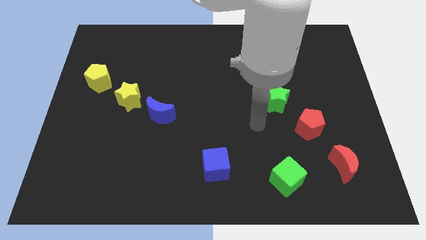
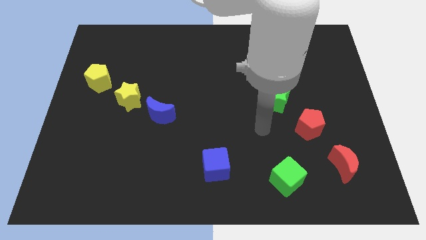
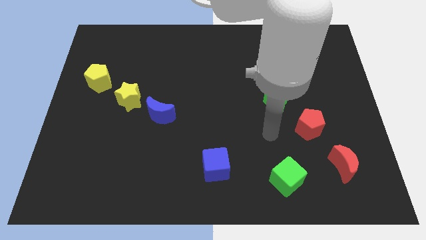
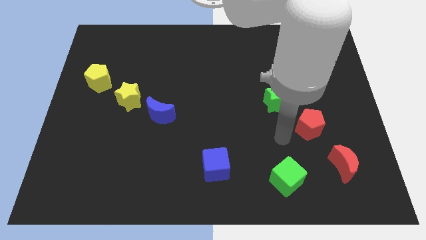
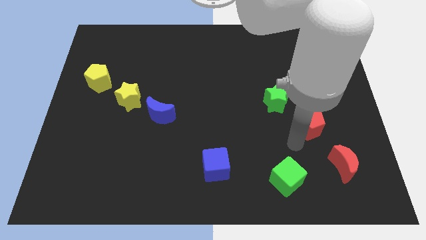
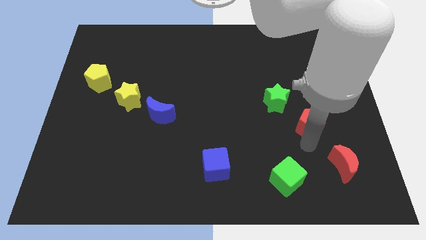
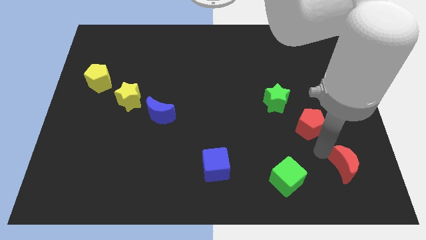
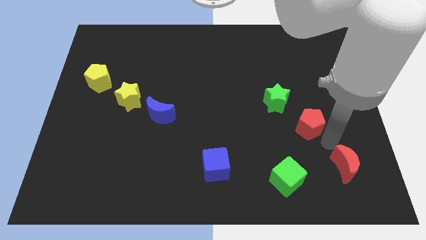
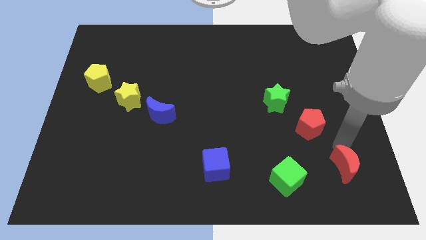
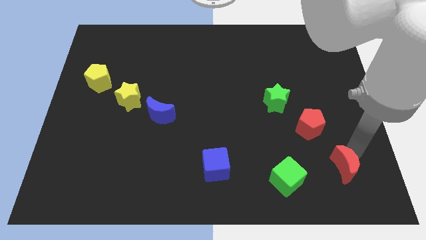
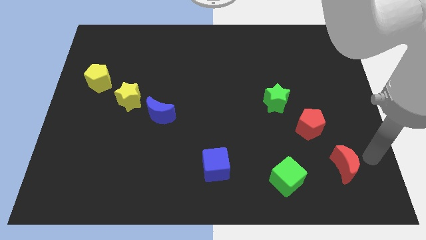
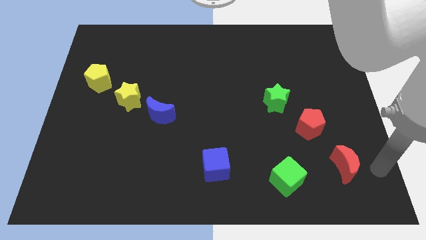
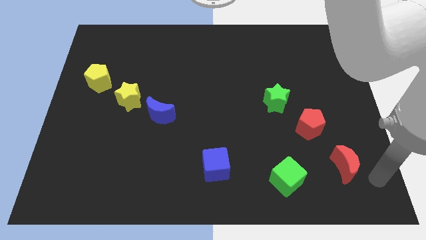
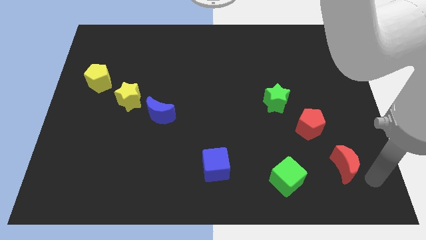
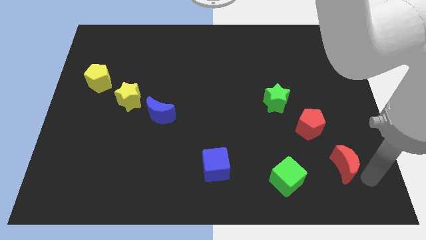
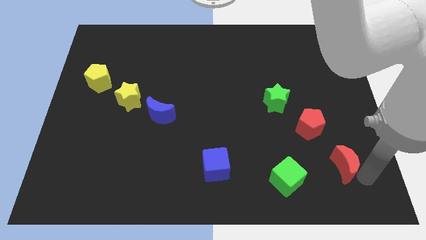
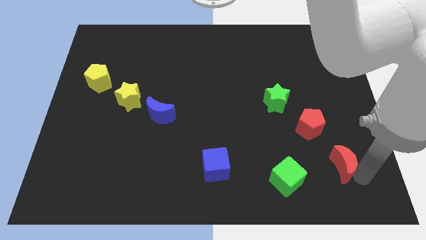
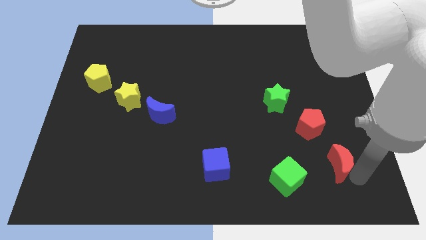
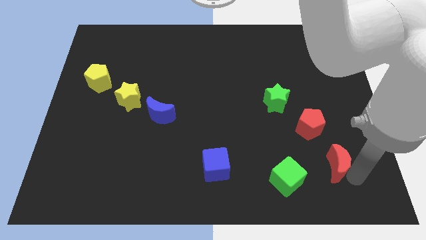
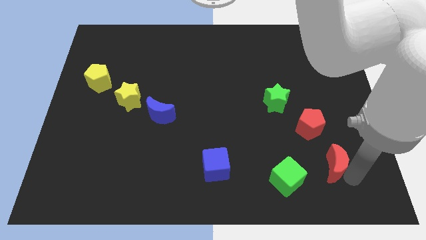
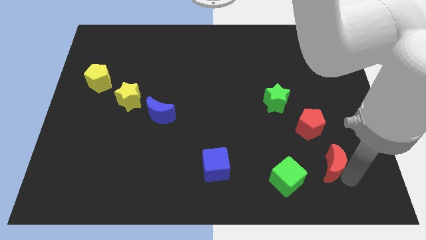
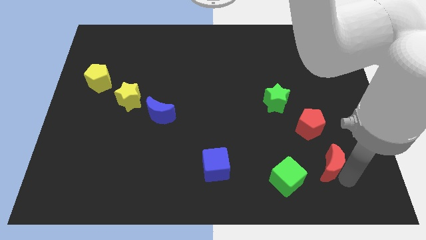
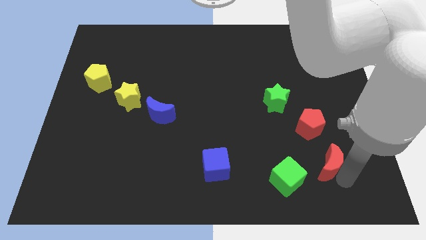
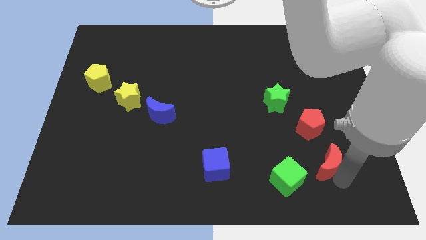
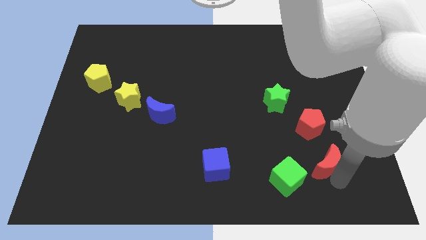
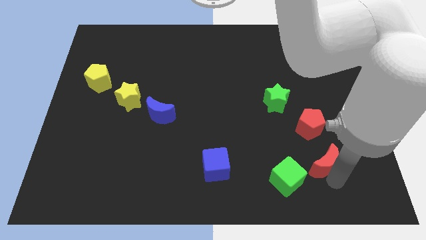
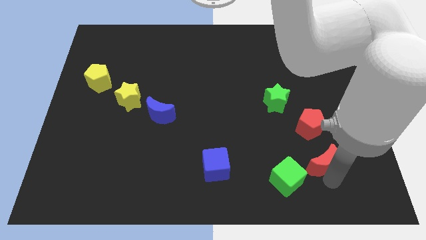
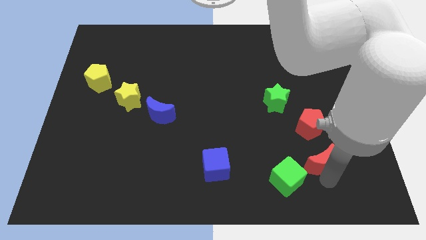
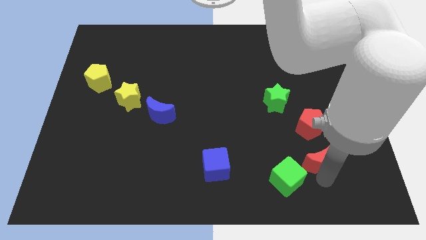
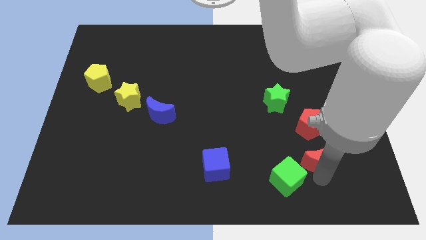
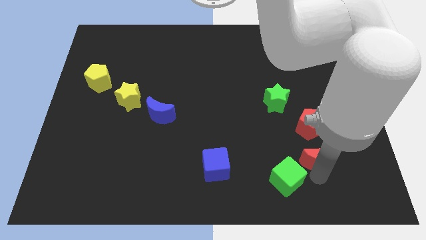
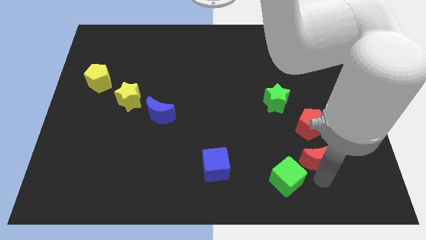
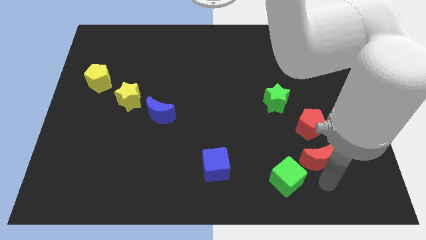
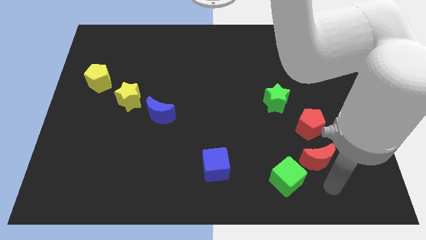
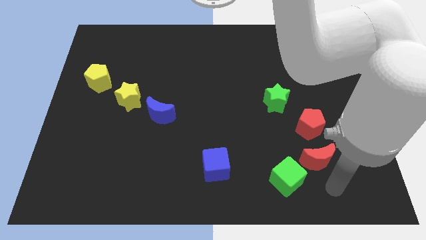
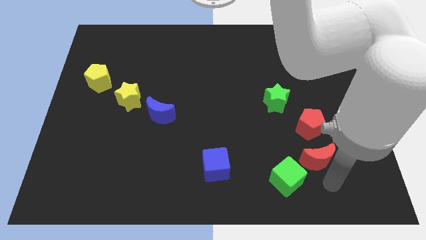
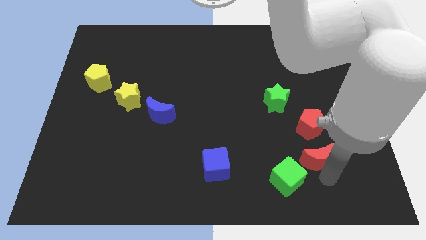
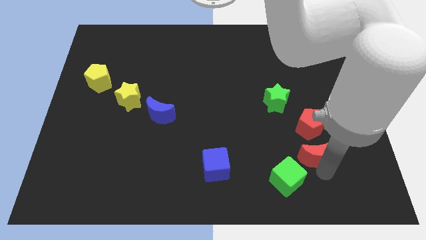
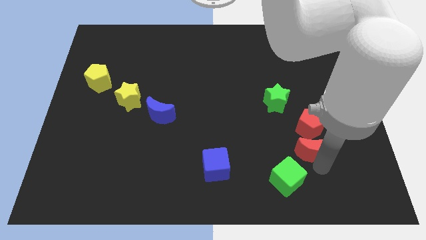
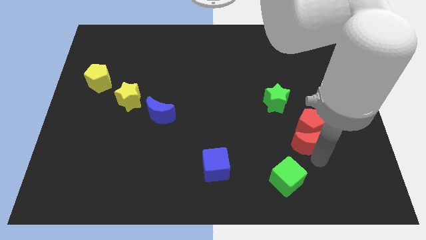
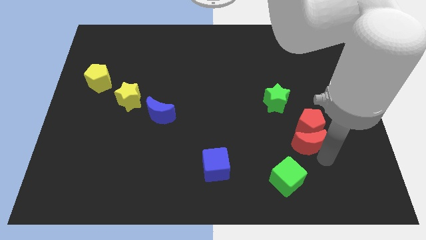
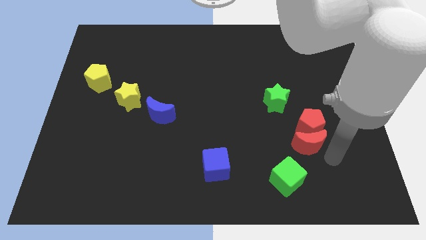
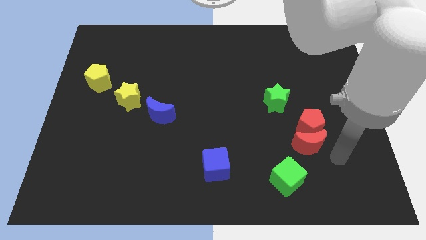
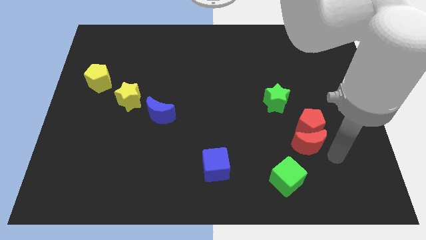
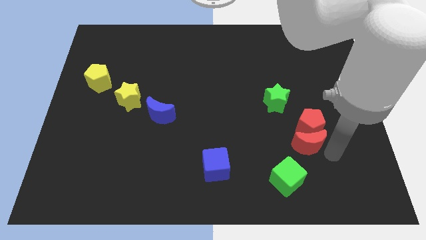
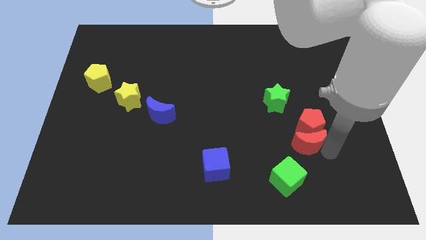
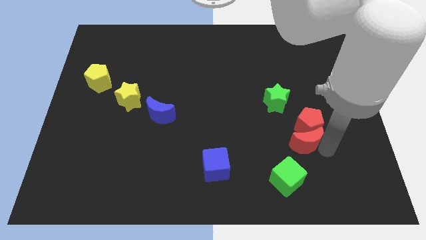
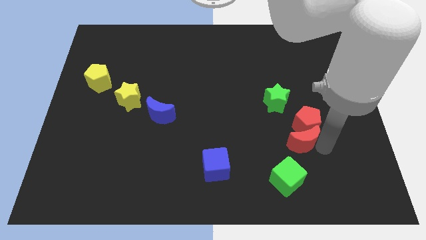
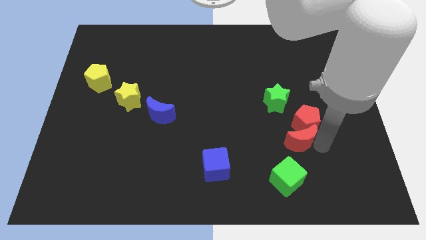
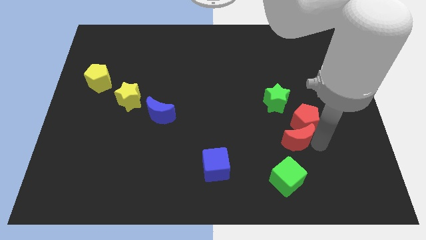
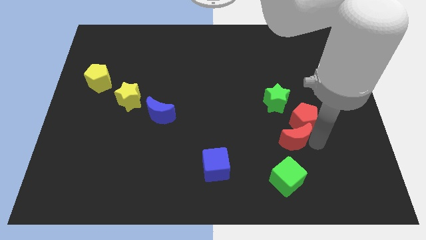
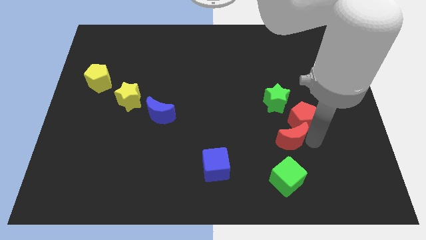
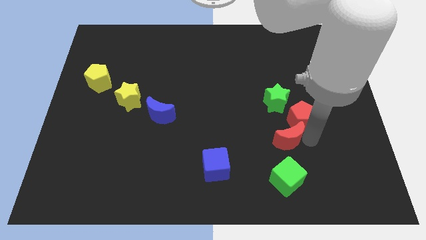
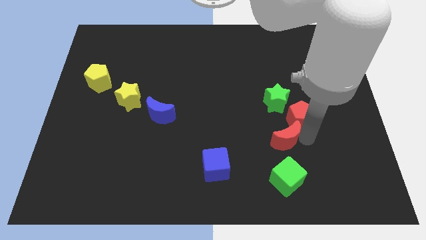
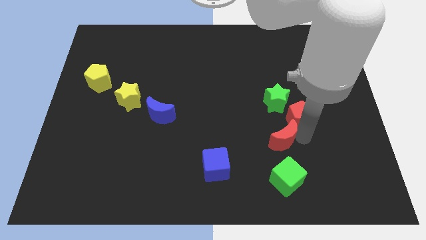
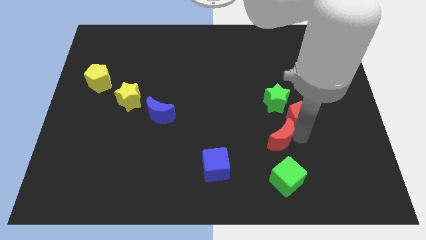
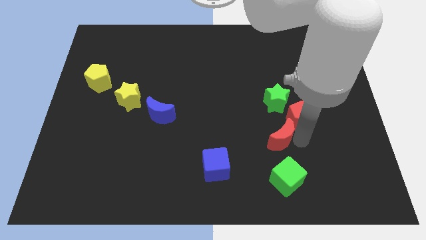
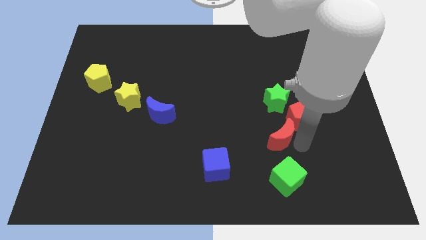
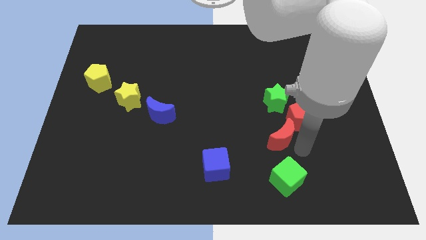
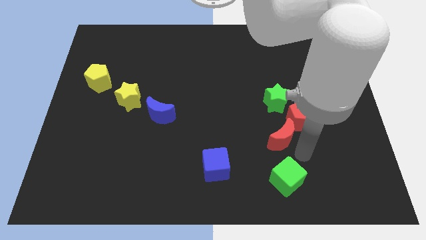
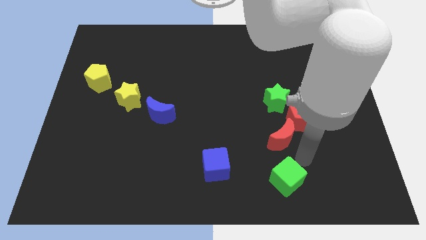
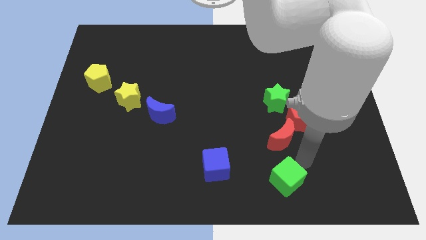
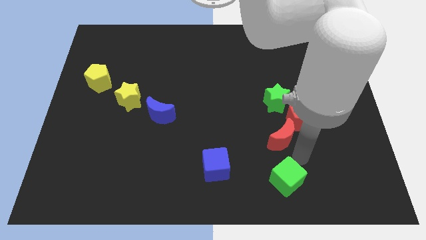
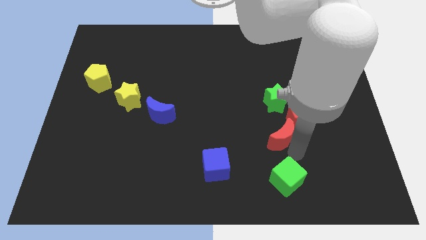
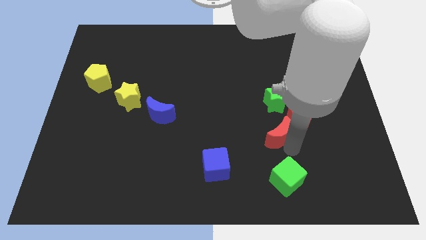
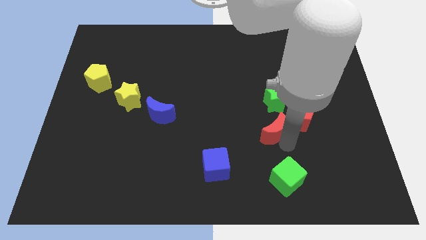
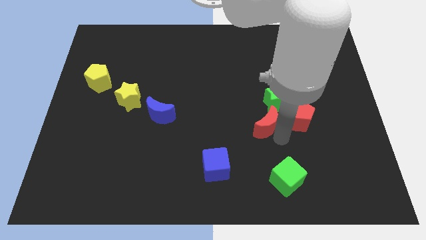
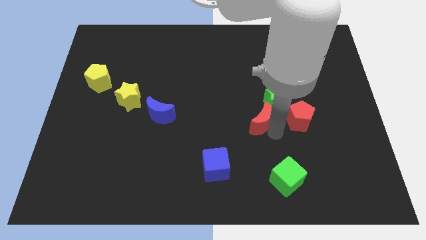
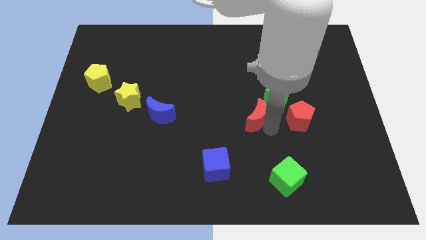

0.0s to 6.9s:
put the red moon to the middle of the board
